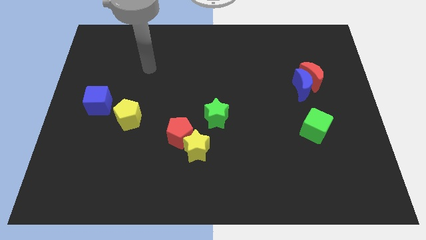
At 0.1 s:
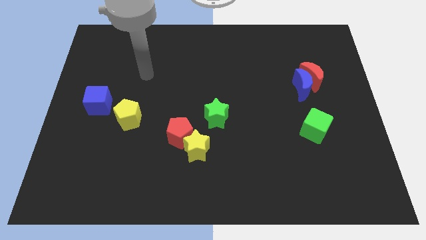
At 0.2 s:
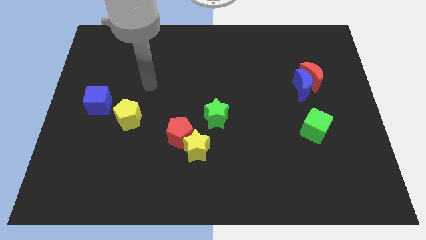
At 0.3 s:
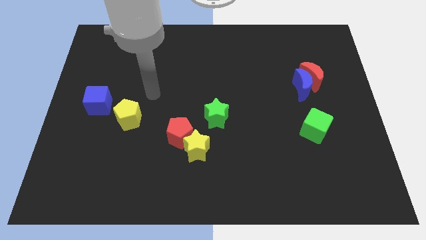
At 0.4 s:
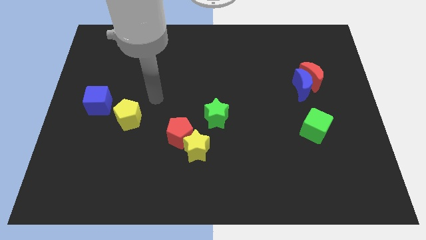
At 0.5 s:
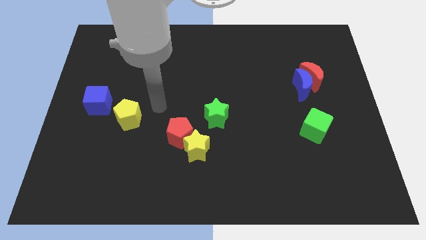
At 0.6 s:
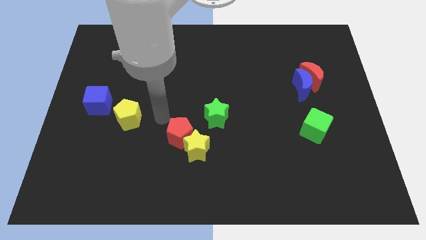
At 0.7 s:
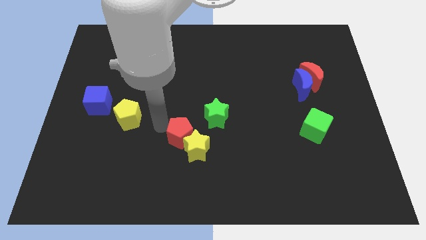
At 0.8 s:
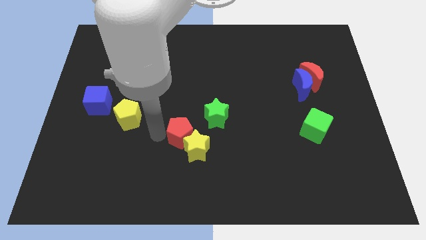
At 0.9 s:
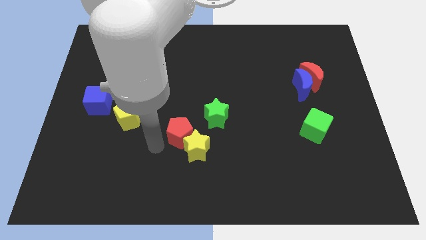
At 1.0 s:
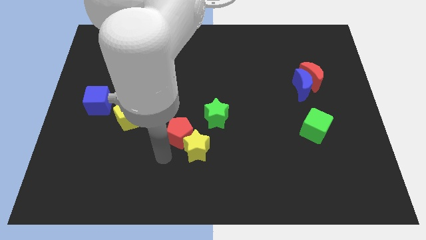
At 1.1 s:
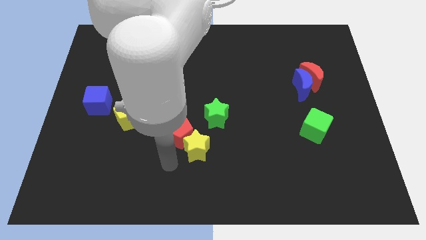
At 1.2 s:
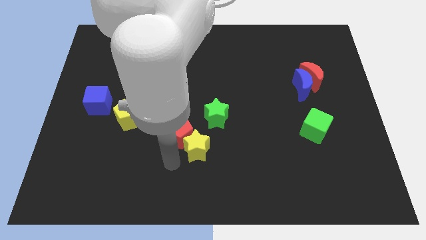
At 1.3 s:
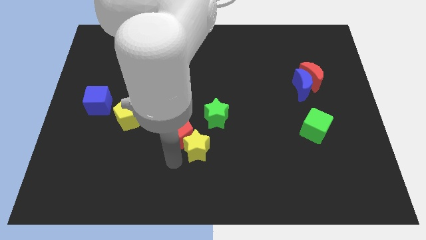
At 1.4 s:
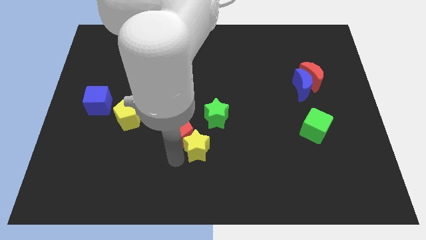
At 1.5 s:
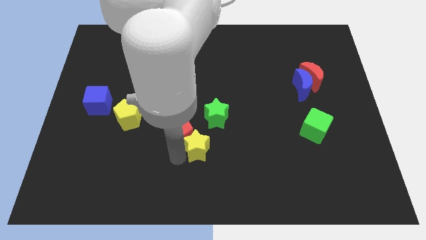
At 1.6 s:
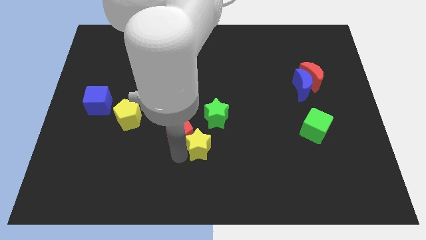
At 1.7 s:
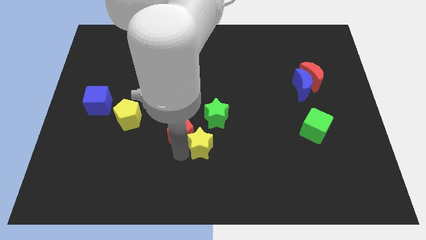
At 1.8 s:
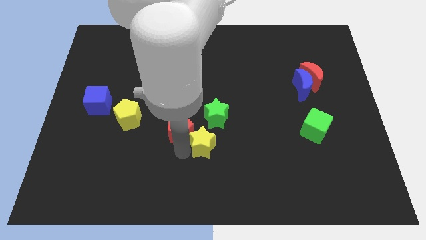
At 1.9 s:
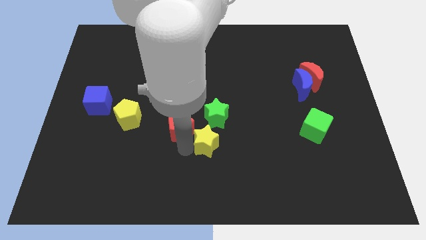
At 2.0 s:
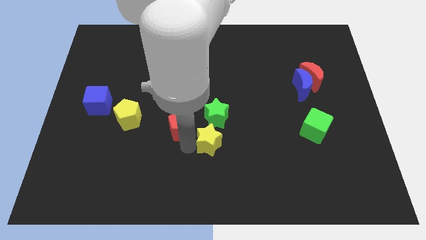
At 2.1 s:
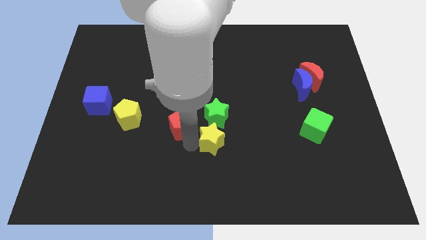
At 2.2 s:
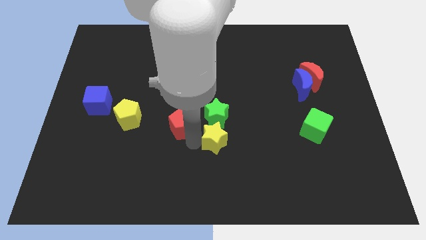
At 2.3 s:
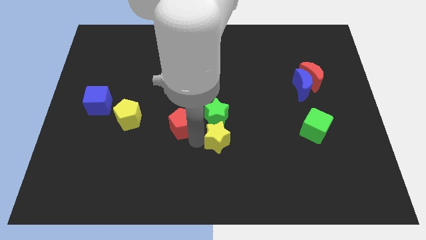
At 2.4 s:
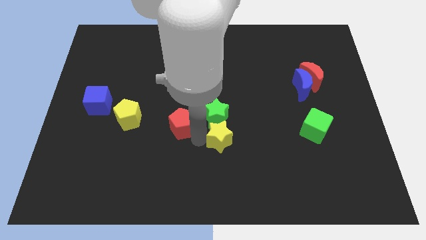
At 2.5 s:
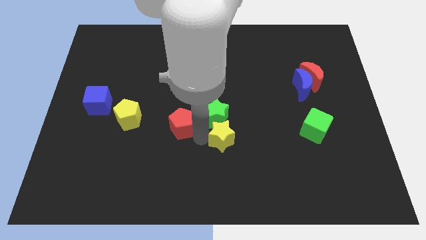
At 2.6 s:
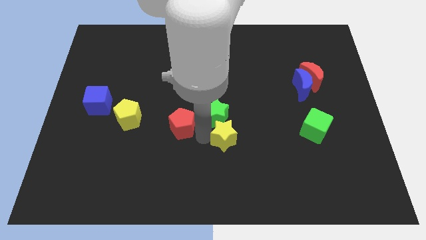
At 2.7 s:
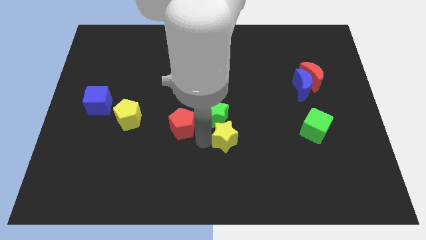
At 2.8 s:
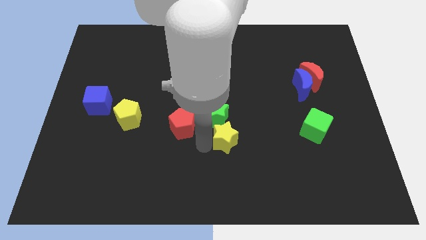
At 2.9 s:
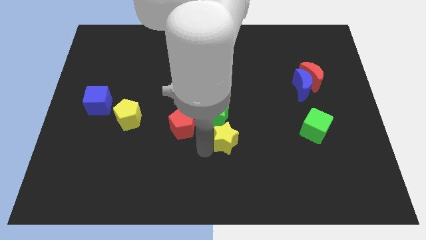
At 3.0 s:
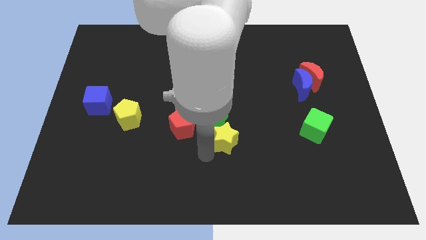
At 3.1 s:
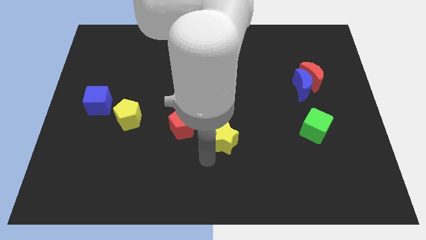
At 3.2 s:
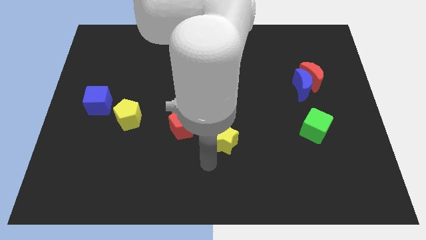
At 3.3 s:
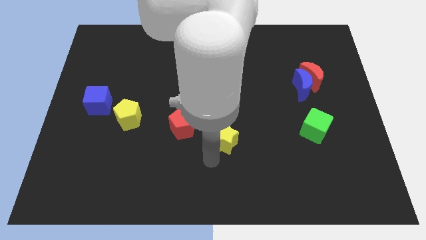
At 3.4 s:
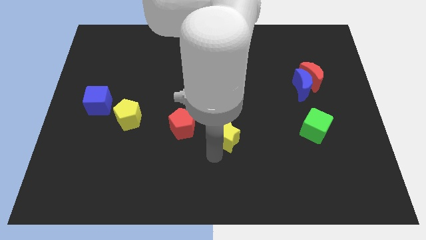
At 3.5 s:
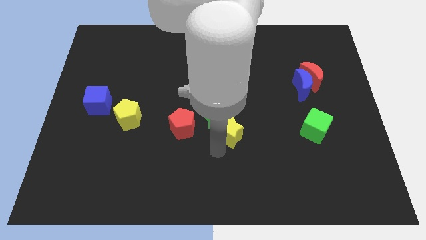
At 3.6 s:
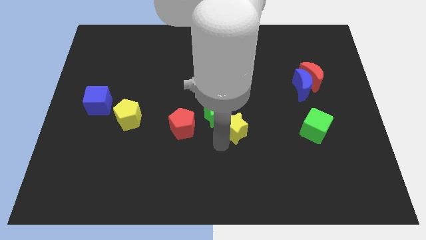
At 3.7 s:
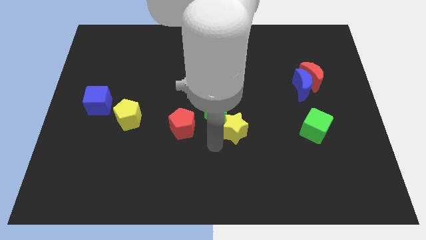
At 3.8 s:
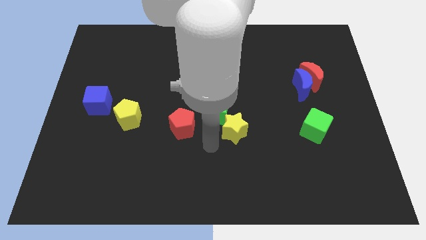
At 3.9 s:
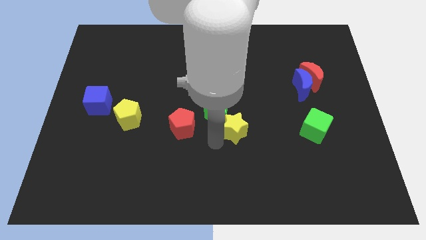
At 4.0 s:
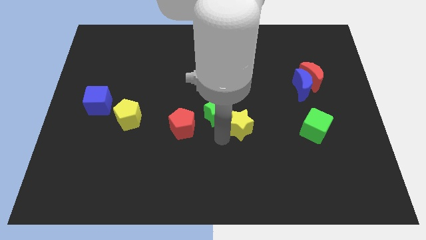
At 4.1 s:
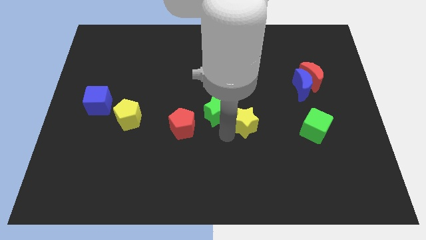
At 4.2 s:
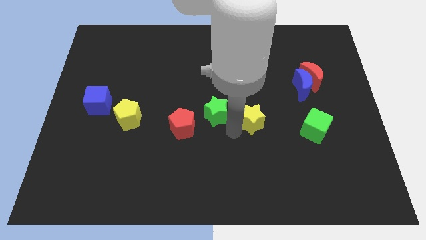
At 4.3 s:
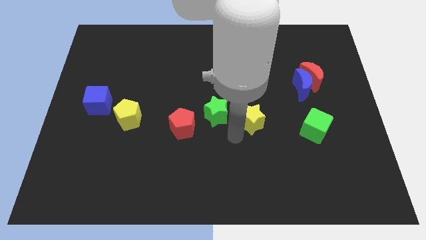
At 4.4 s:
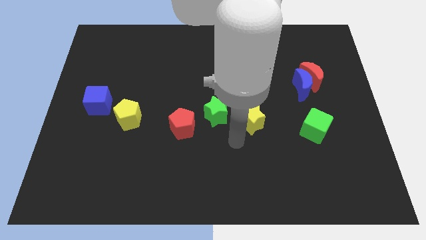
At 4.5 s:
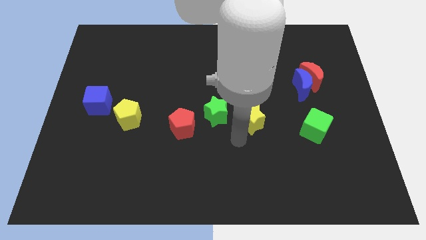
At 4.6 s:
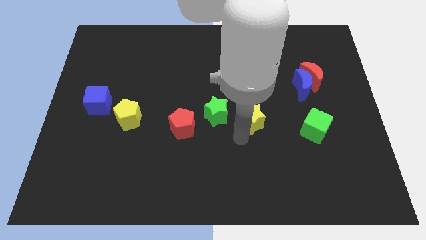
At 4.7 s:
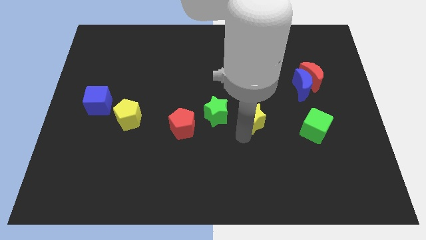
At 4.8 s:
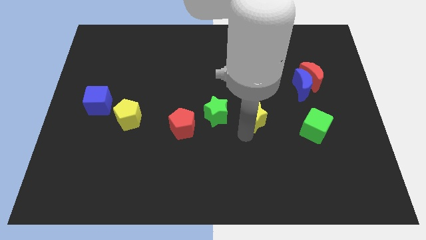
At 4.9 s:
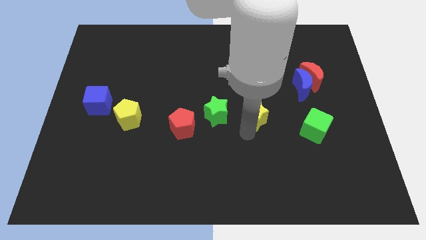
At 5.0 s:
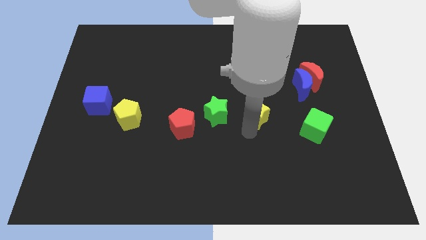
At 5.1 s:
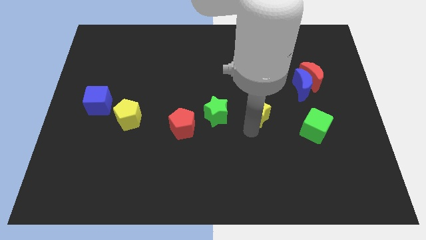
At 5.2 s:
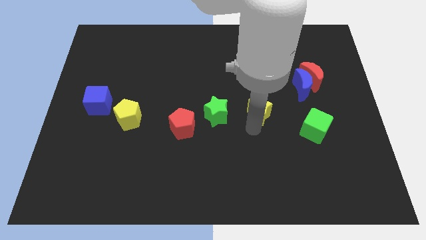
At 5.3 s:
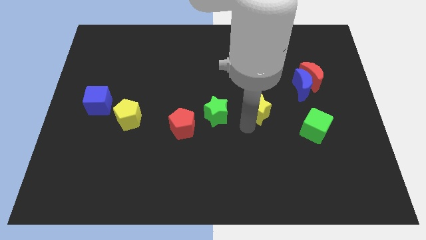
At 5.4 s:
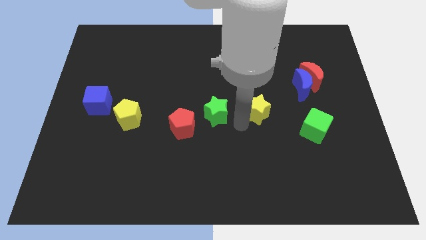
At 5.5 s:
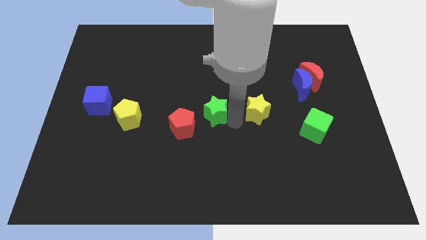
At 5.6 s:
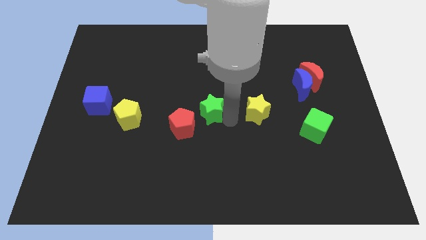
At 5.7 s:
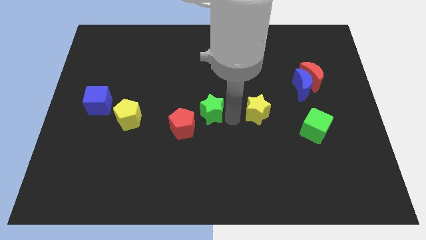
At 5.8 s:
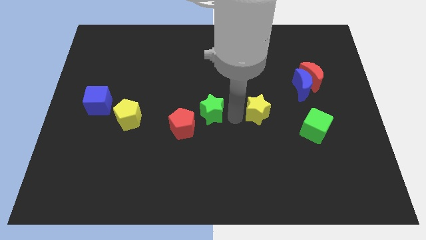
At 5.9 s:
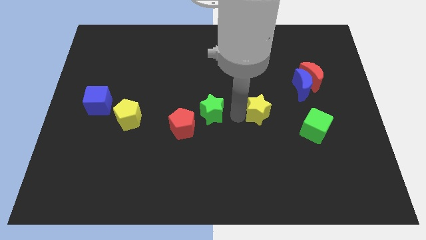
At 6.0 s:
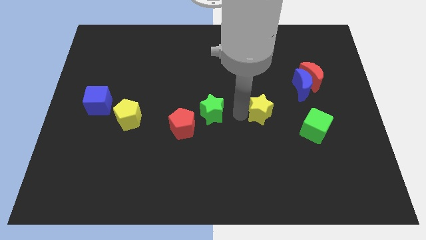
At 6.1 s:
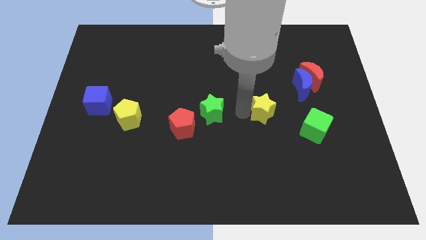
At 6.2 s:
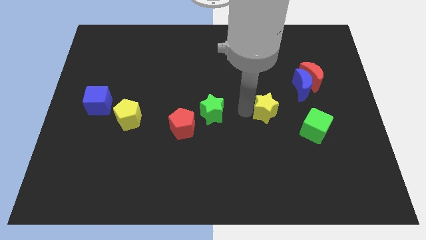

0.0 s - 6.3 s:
push the yellow star to the bottom left side of the blue moon

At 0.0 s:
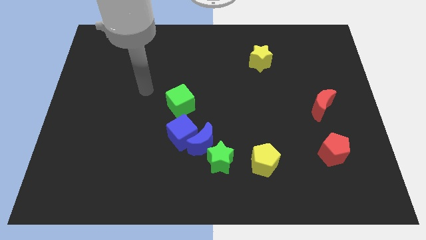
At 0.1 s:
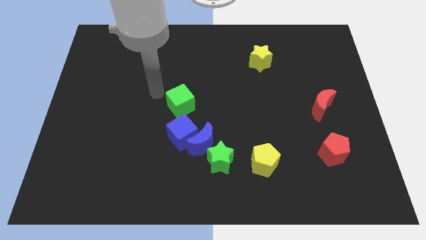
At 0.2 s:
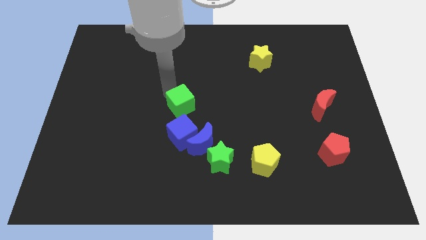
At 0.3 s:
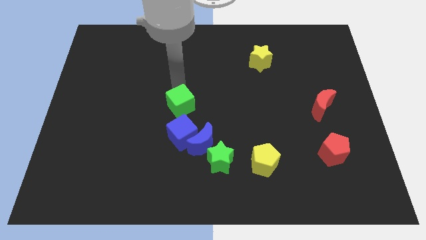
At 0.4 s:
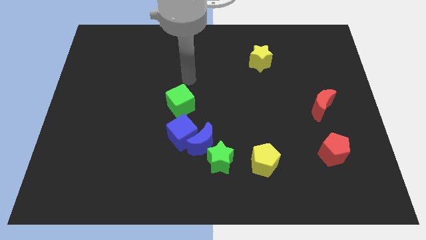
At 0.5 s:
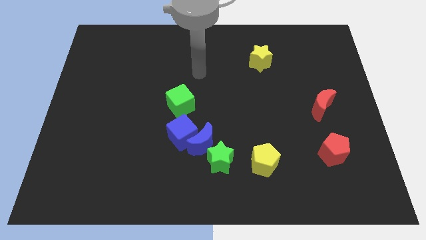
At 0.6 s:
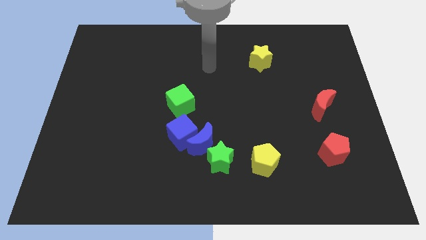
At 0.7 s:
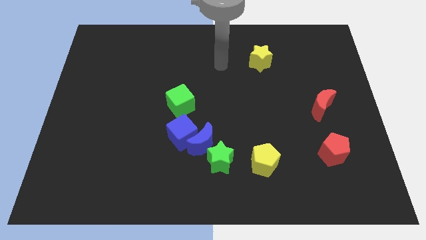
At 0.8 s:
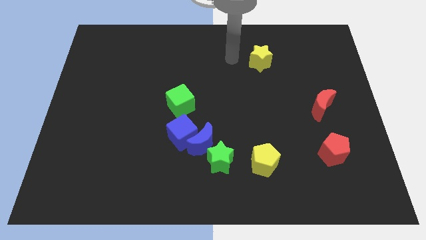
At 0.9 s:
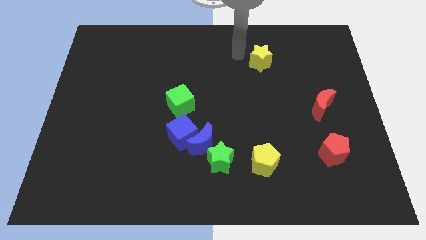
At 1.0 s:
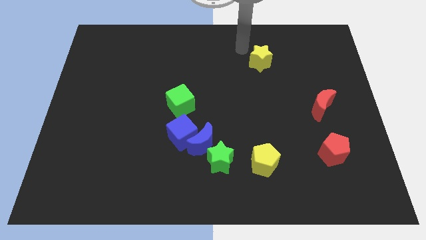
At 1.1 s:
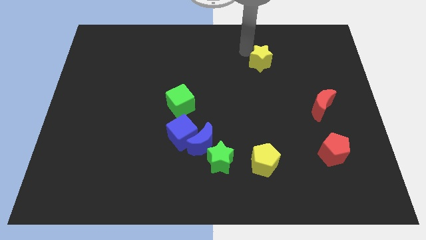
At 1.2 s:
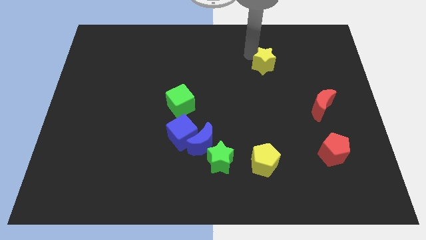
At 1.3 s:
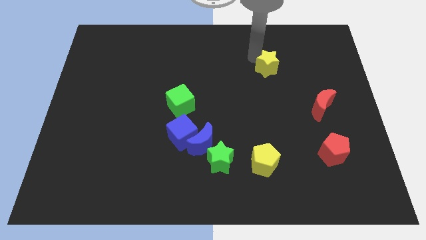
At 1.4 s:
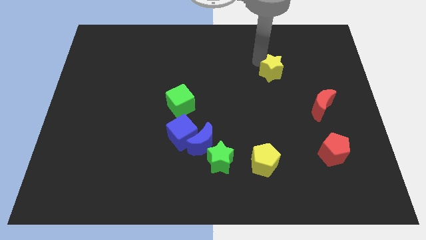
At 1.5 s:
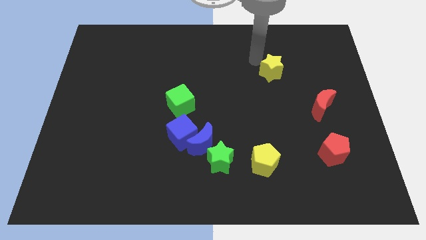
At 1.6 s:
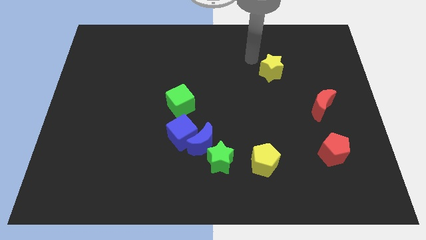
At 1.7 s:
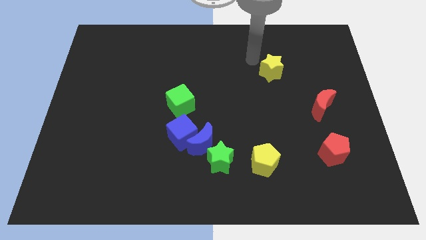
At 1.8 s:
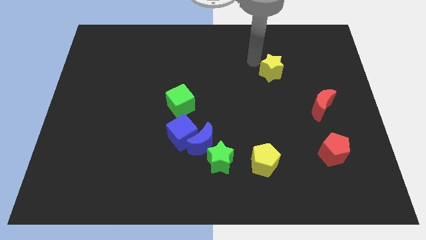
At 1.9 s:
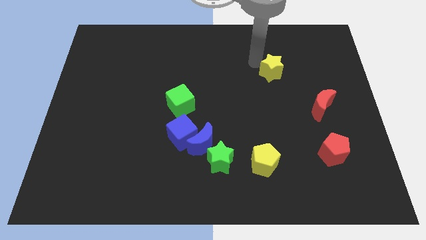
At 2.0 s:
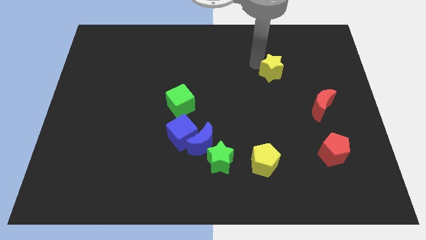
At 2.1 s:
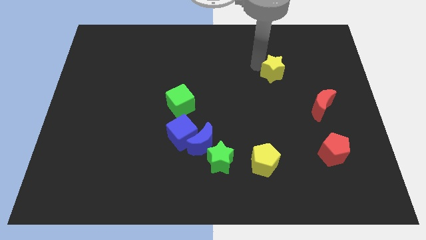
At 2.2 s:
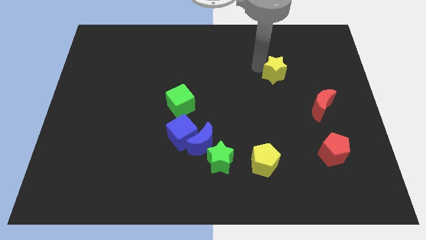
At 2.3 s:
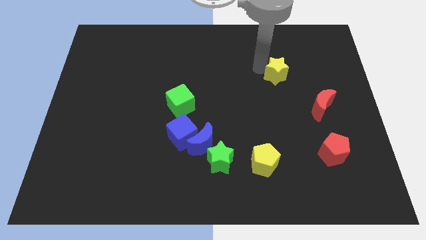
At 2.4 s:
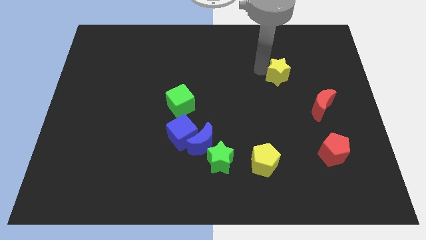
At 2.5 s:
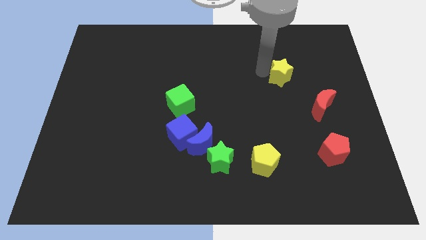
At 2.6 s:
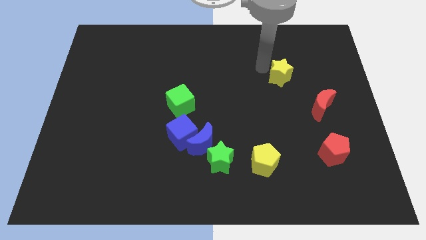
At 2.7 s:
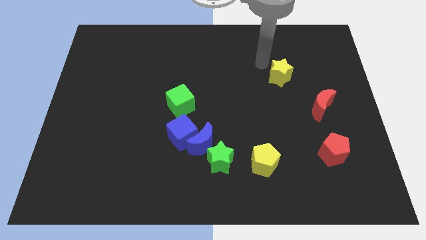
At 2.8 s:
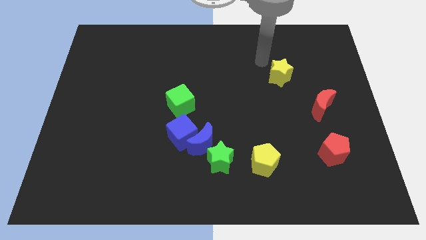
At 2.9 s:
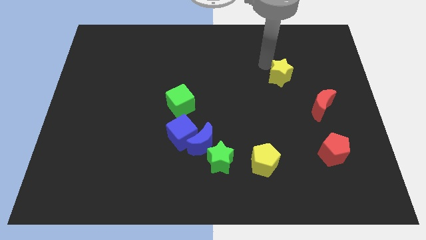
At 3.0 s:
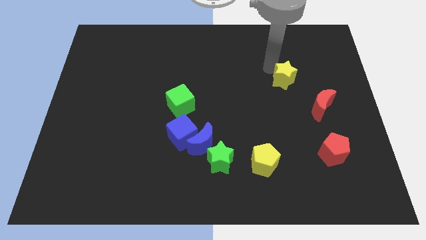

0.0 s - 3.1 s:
slide the yellow star to the top left side of the red moon
